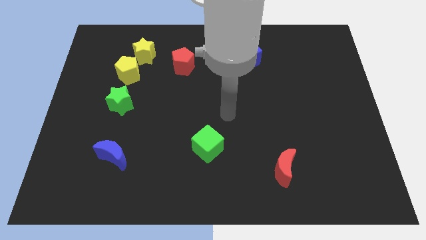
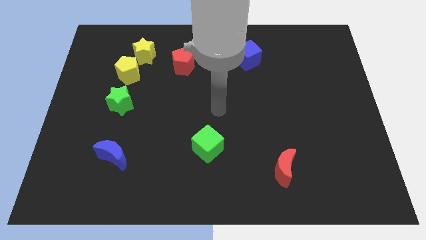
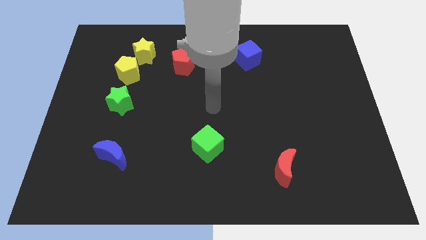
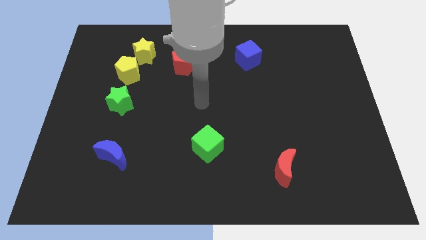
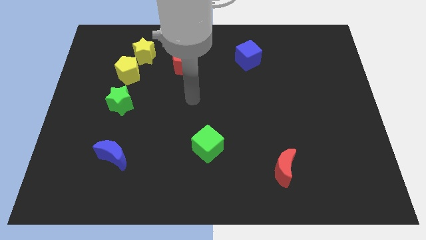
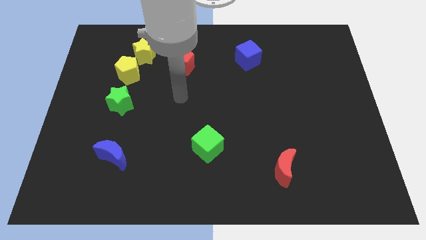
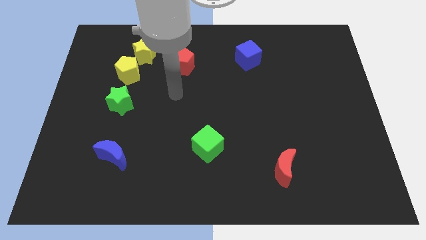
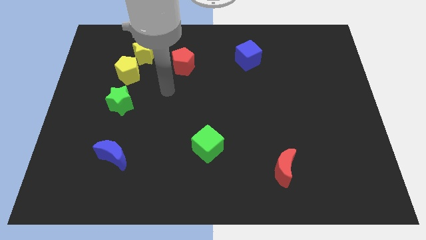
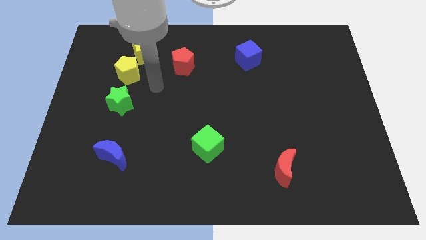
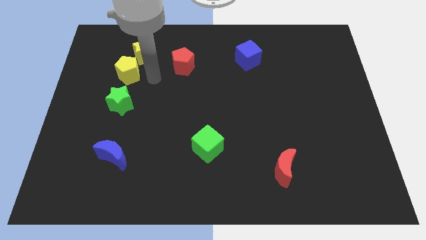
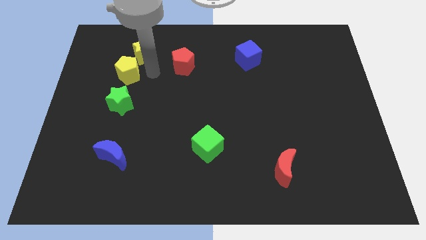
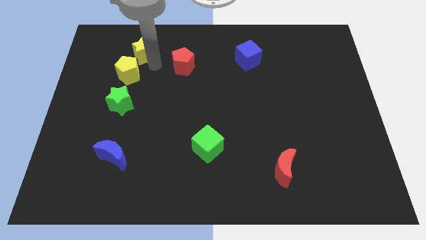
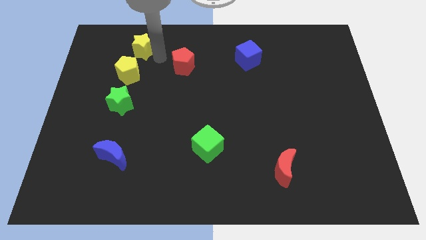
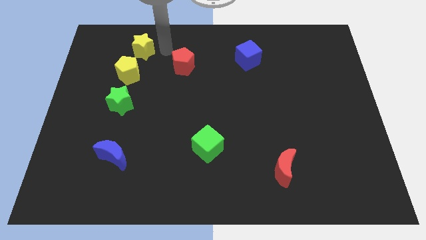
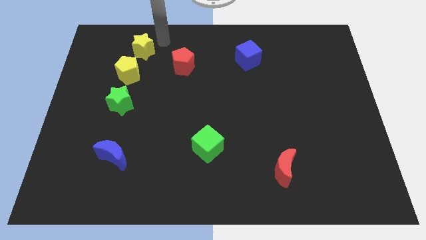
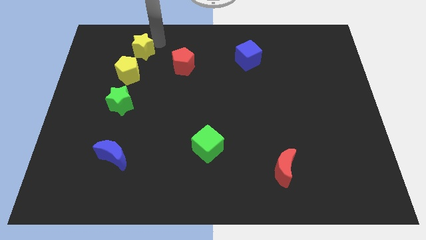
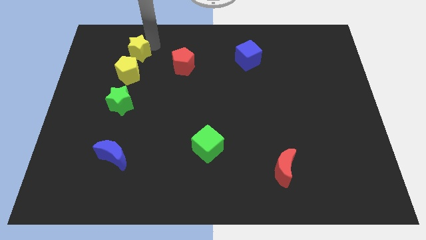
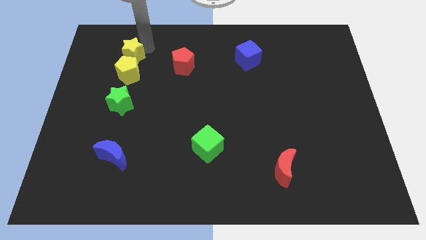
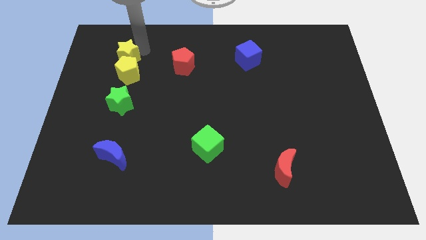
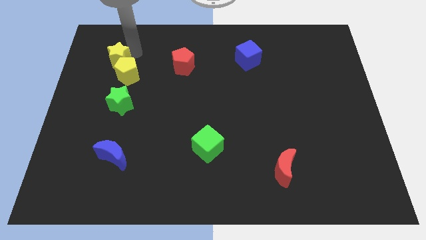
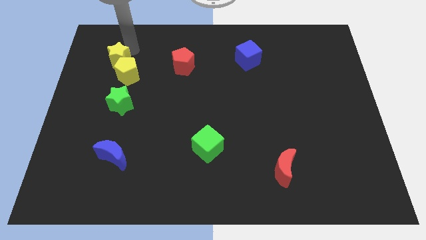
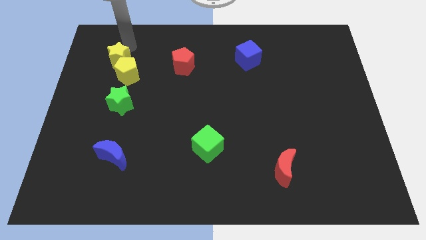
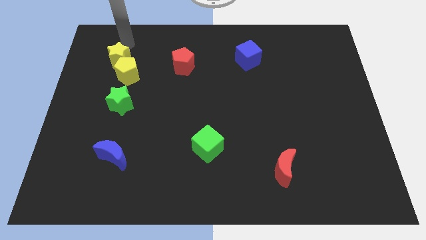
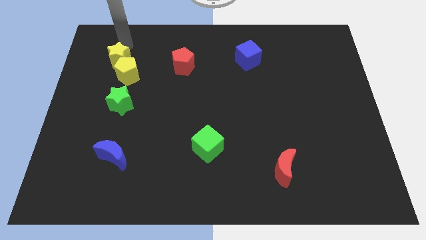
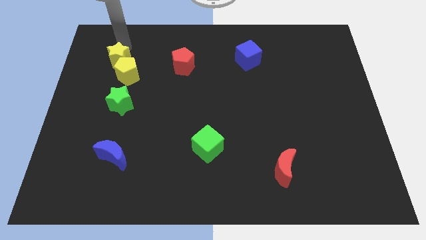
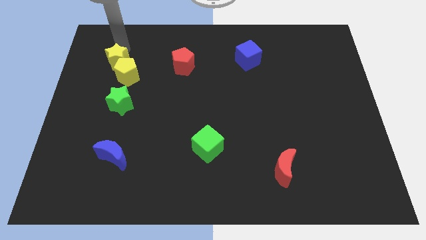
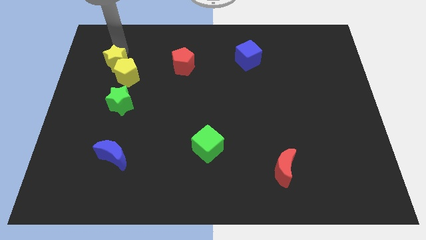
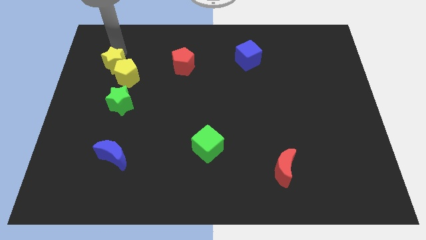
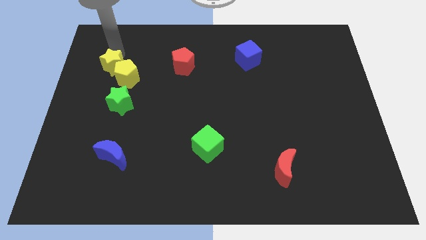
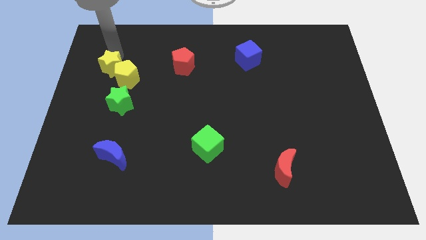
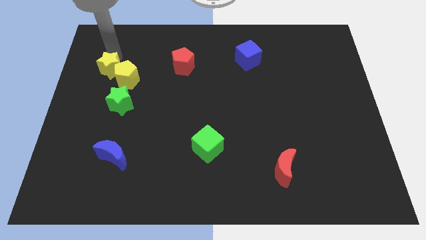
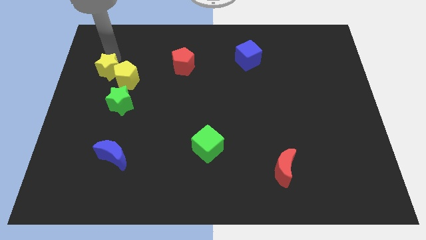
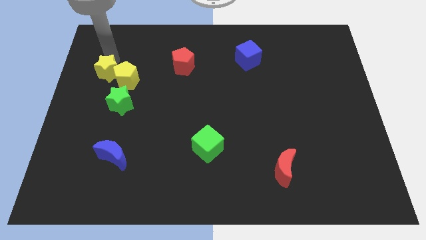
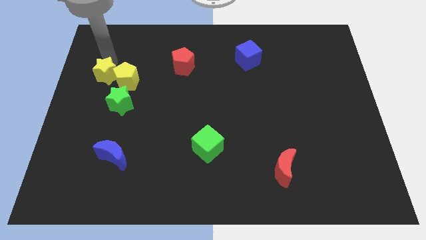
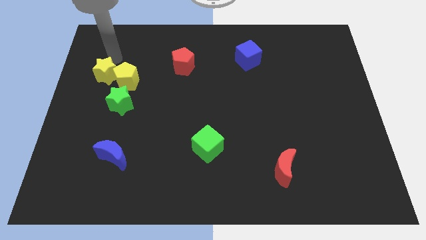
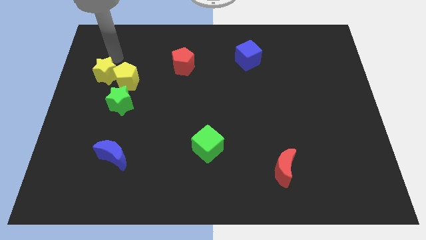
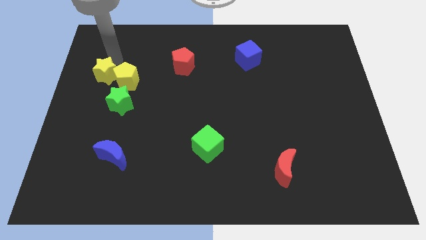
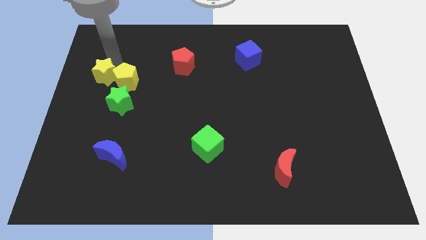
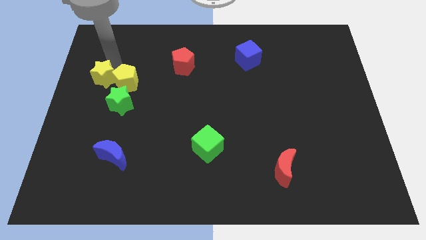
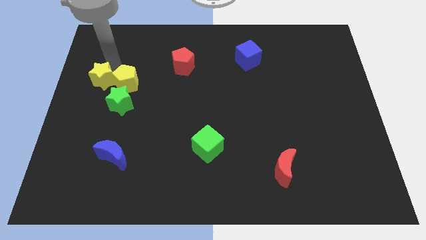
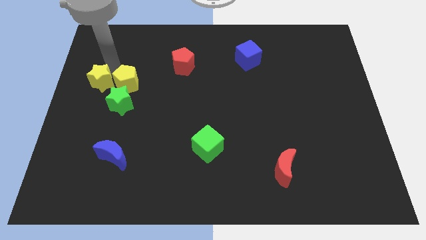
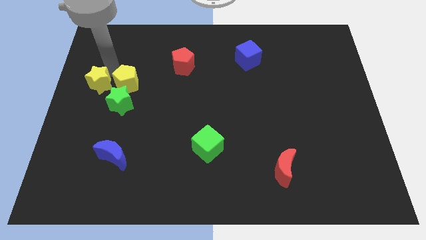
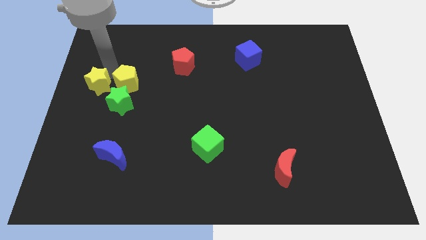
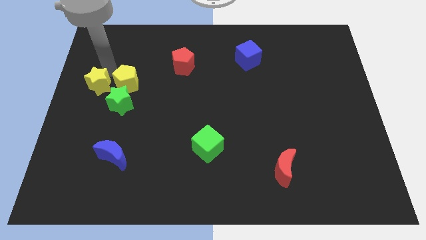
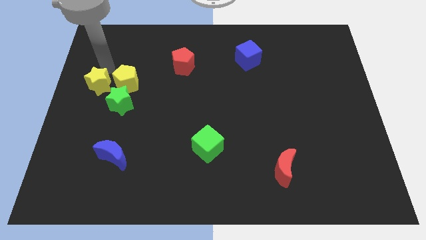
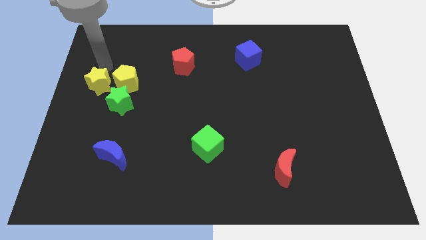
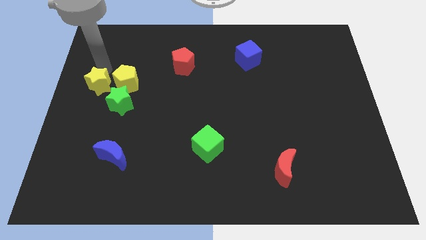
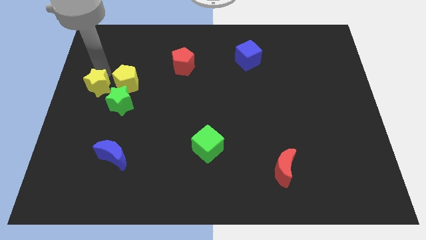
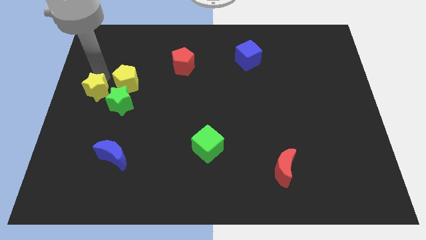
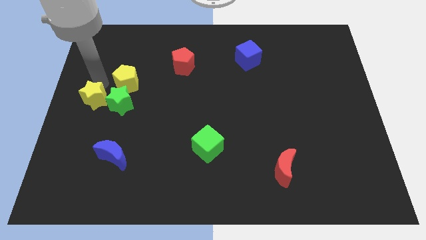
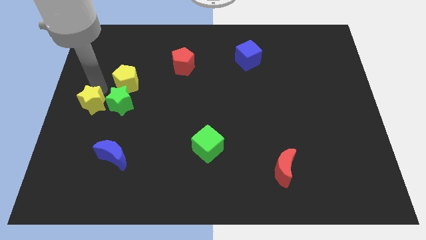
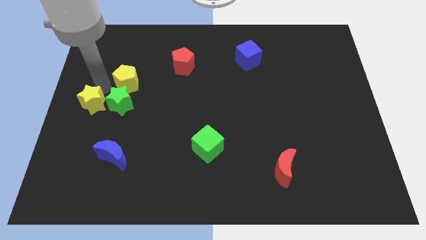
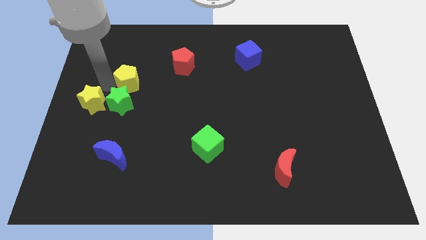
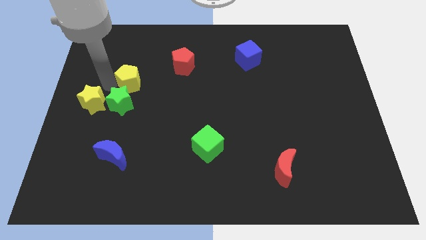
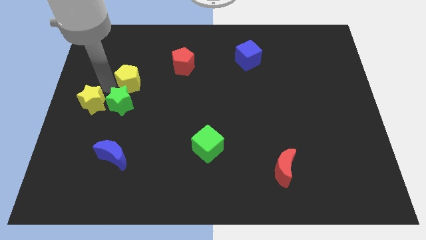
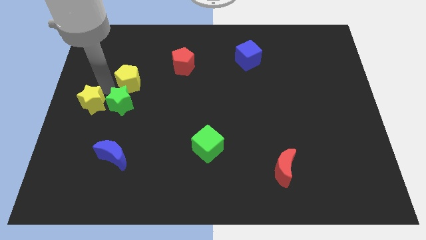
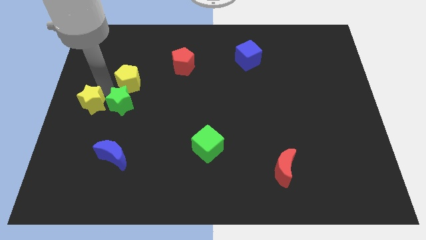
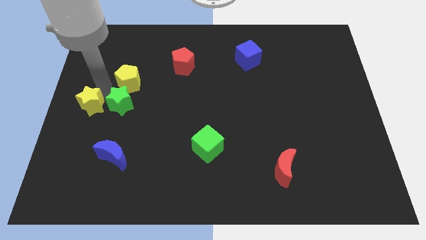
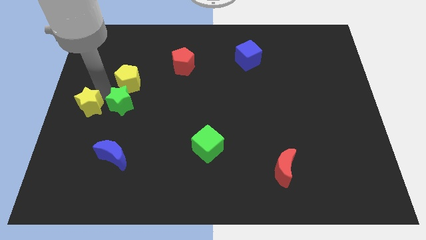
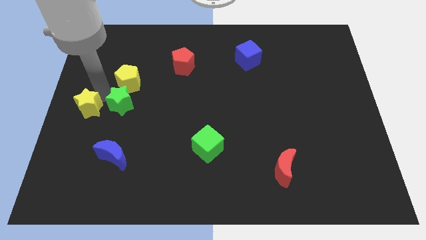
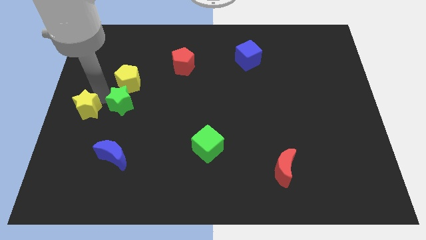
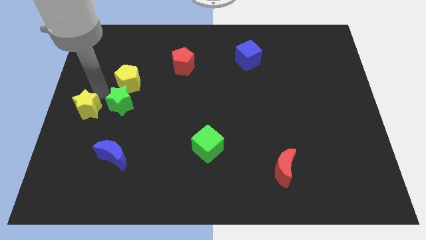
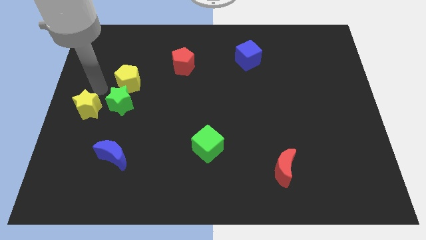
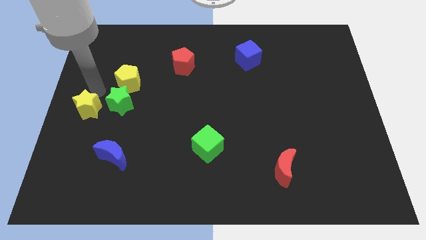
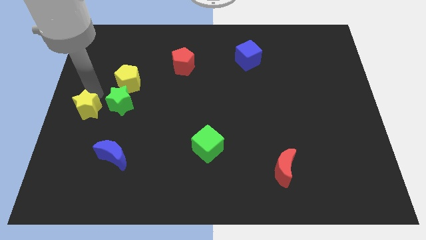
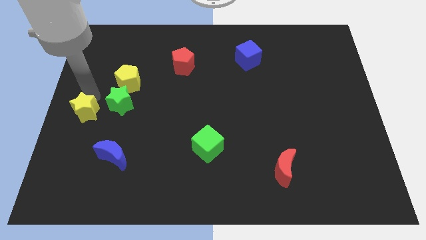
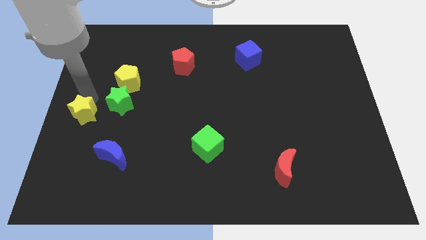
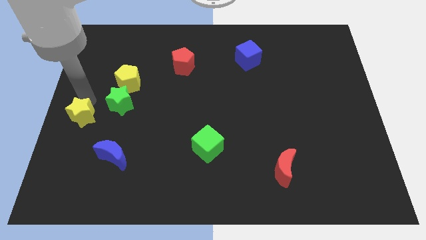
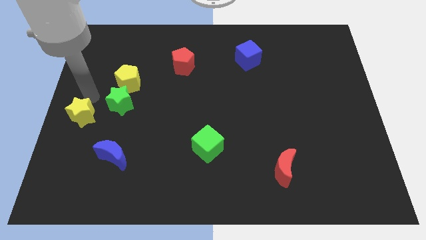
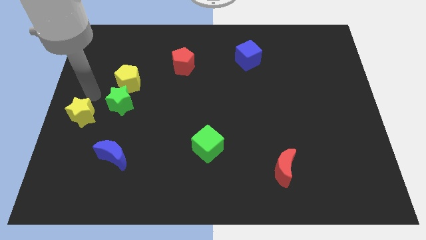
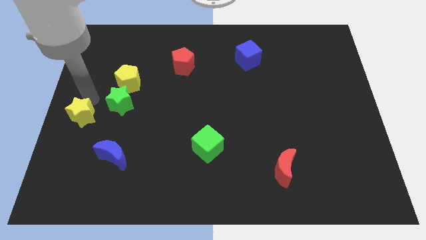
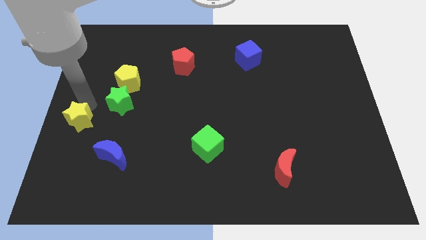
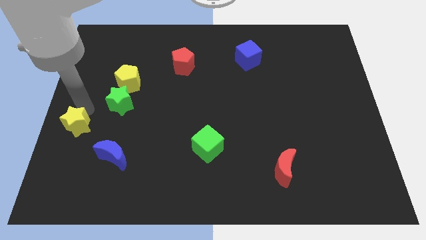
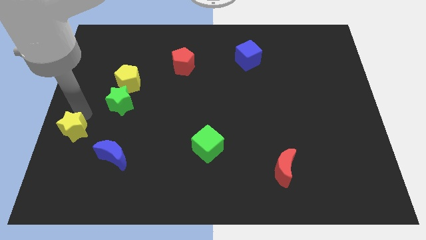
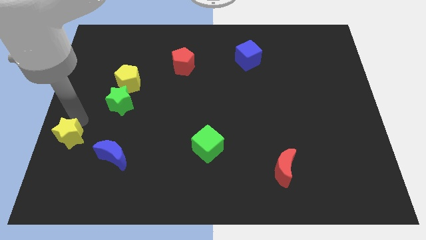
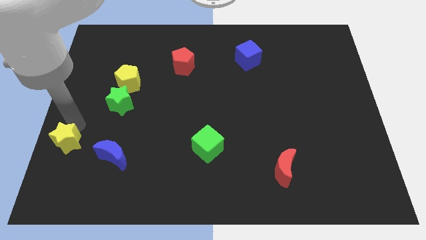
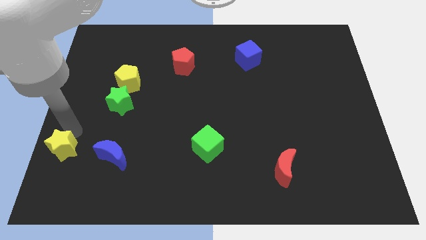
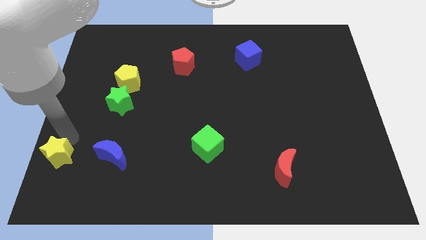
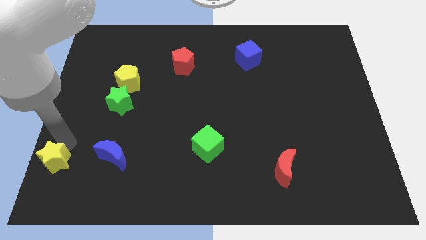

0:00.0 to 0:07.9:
move the yellow star to the bottom left
